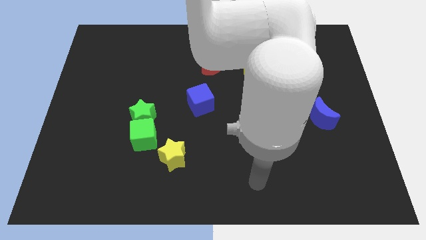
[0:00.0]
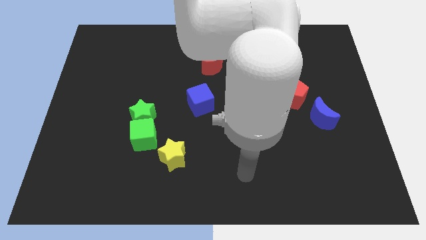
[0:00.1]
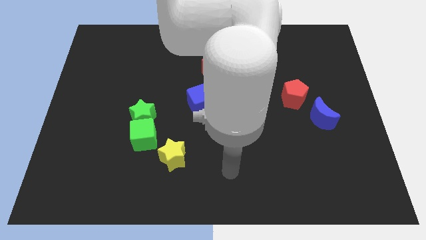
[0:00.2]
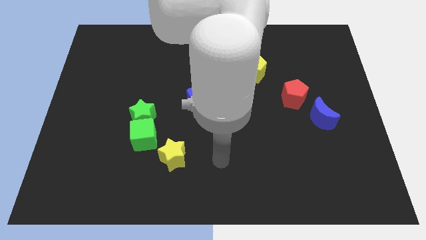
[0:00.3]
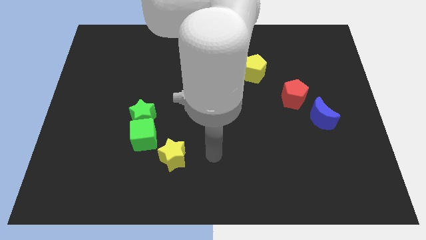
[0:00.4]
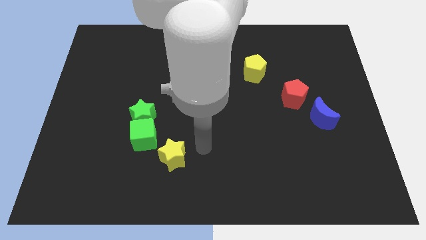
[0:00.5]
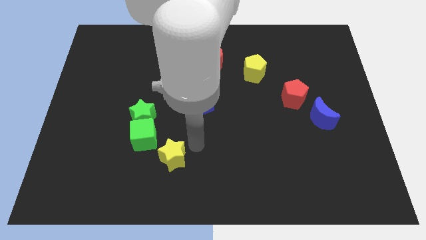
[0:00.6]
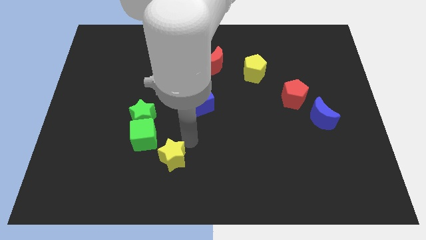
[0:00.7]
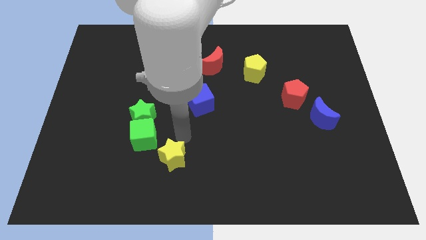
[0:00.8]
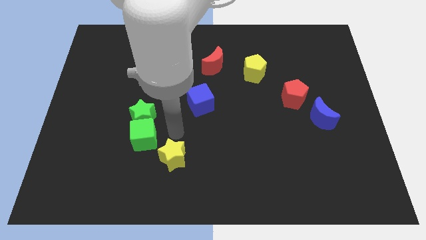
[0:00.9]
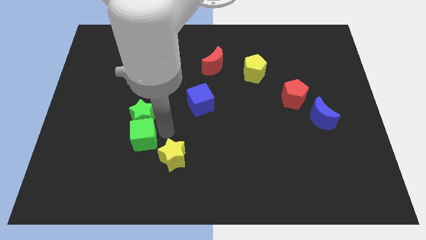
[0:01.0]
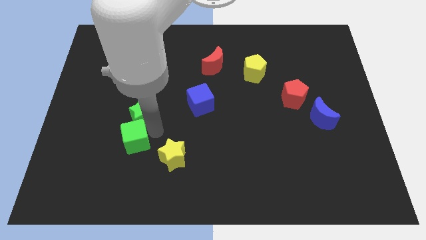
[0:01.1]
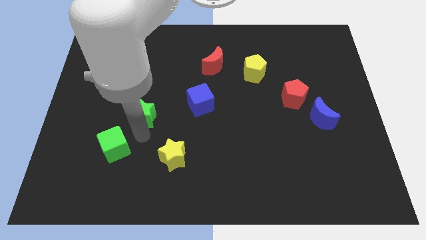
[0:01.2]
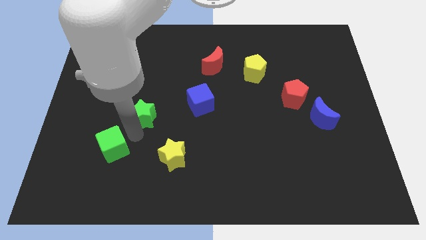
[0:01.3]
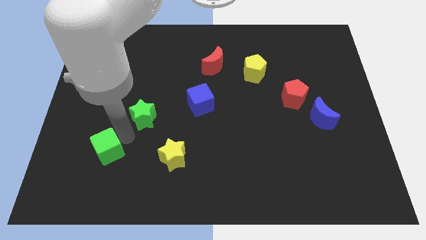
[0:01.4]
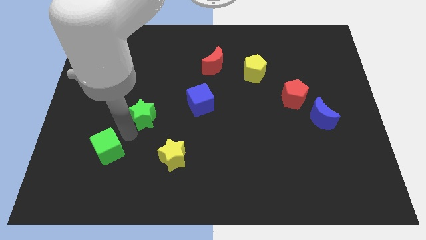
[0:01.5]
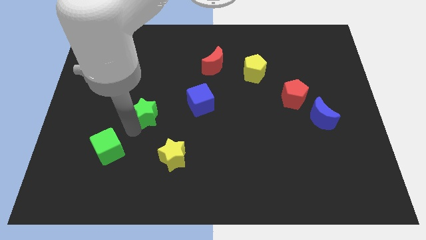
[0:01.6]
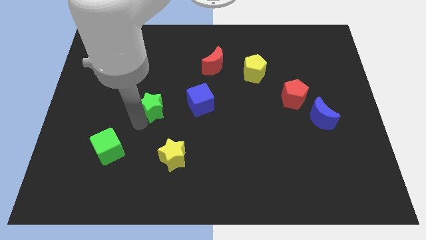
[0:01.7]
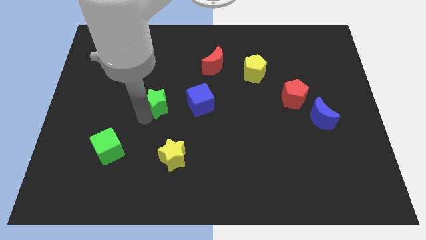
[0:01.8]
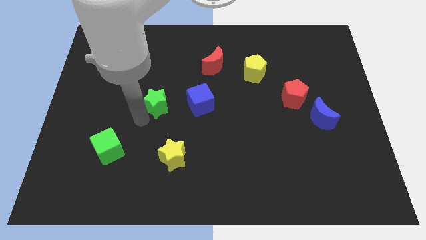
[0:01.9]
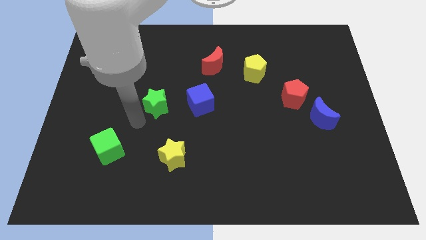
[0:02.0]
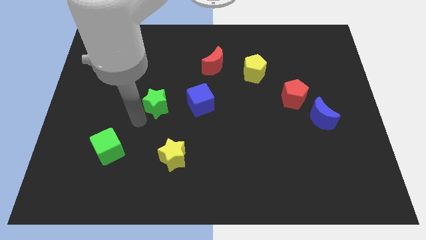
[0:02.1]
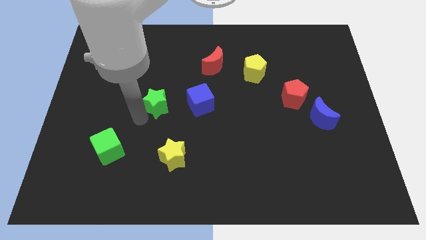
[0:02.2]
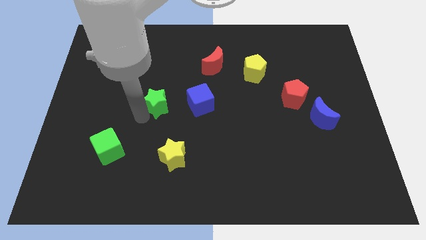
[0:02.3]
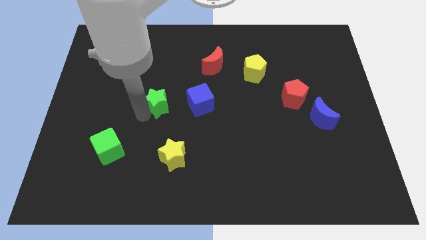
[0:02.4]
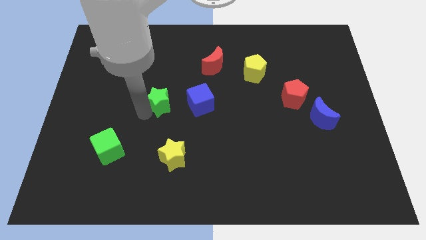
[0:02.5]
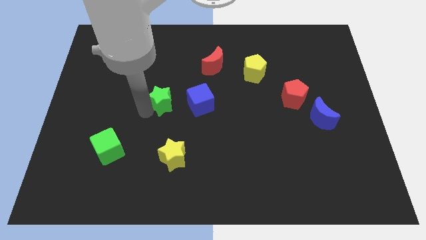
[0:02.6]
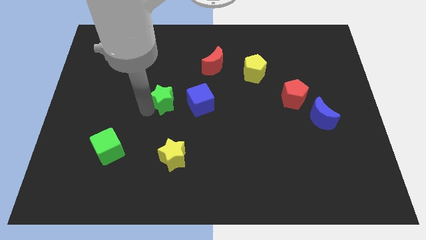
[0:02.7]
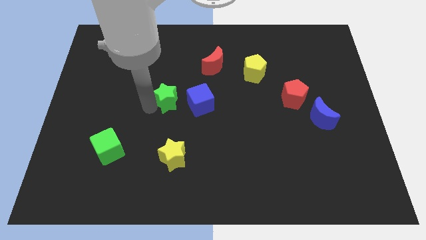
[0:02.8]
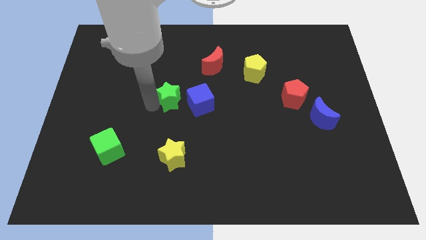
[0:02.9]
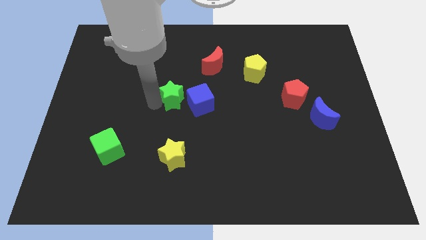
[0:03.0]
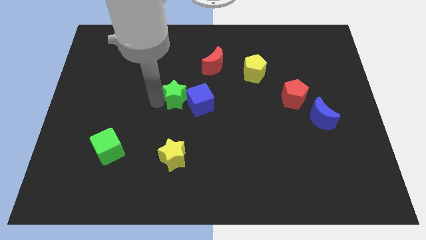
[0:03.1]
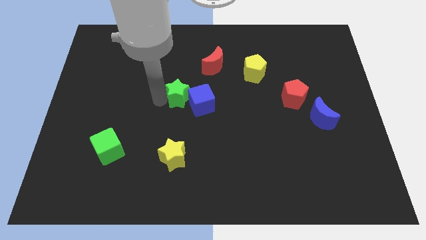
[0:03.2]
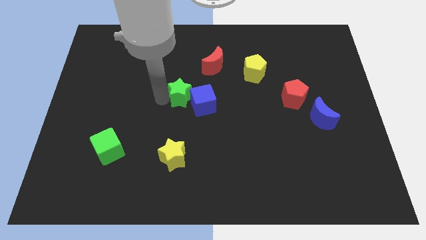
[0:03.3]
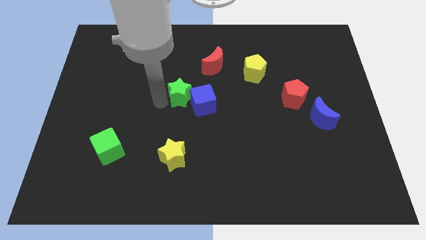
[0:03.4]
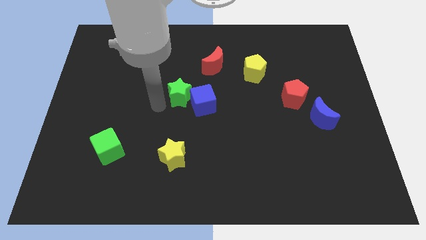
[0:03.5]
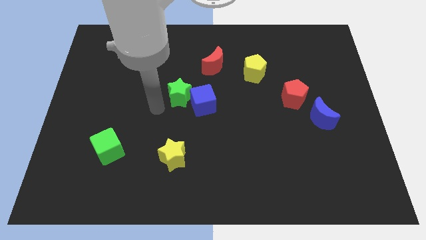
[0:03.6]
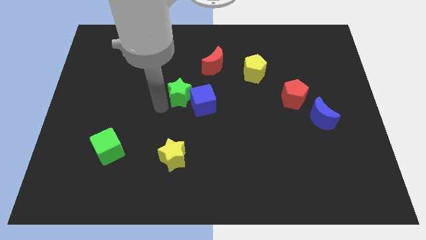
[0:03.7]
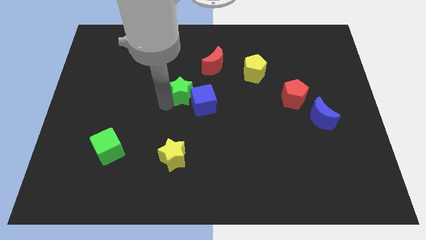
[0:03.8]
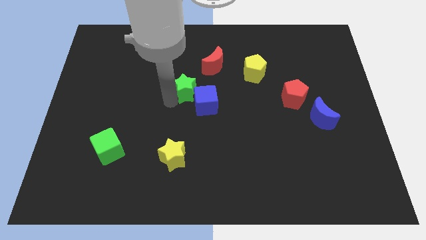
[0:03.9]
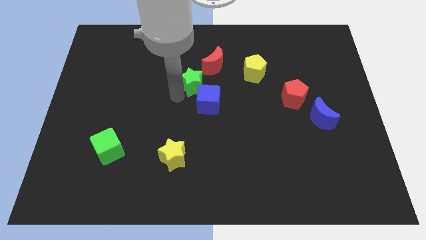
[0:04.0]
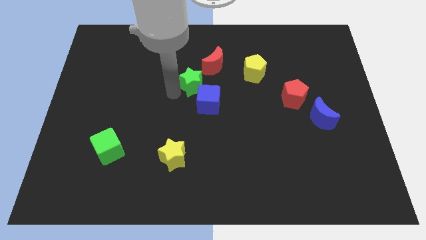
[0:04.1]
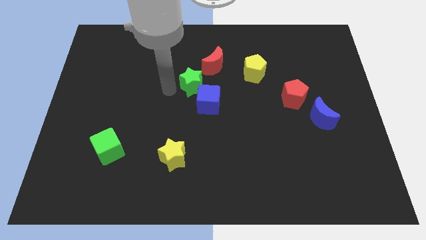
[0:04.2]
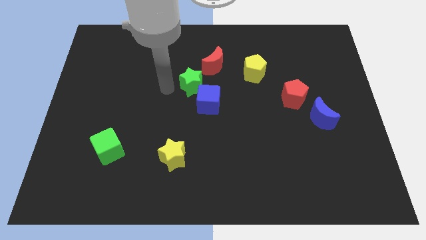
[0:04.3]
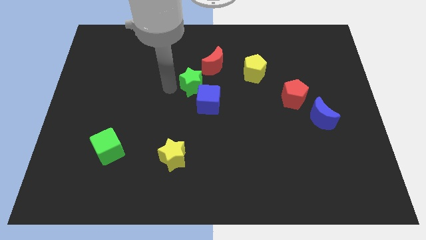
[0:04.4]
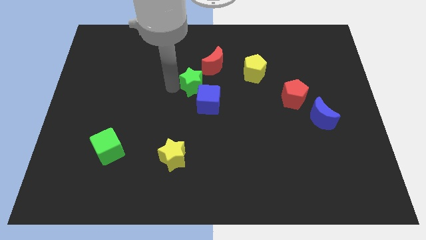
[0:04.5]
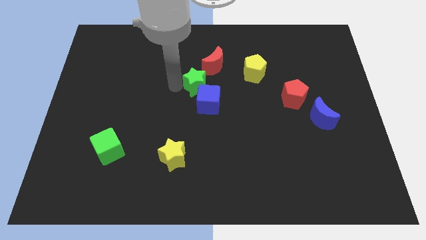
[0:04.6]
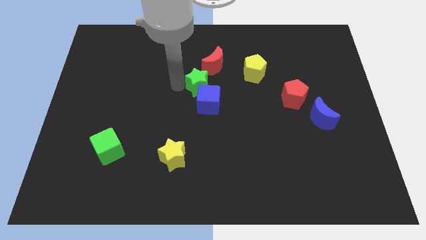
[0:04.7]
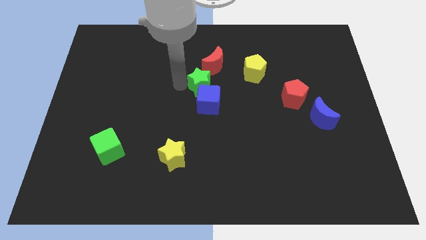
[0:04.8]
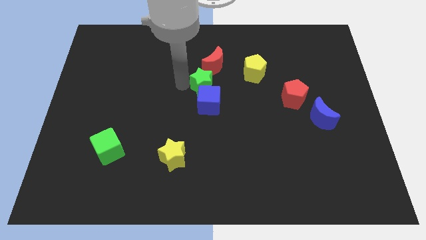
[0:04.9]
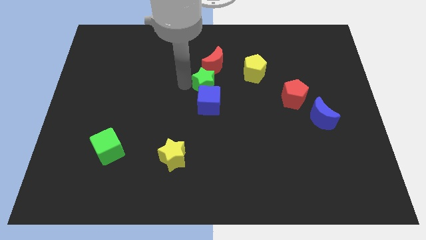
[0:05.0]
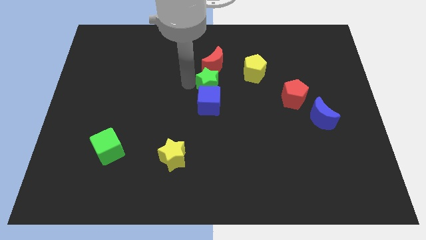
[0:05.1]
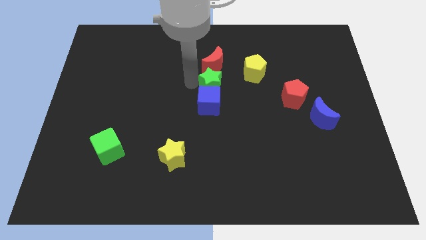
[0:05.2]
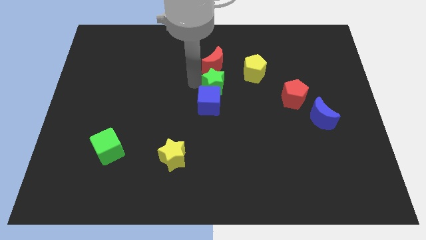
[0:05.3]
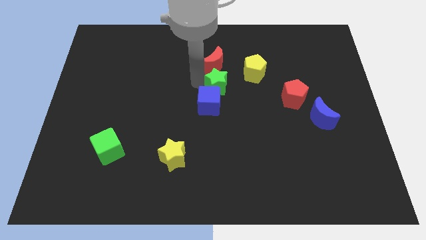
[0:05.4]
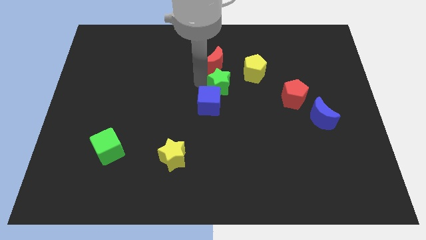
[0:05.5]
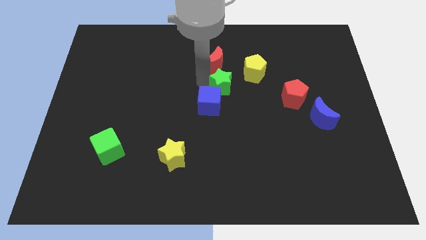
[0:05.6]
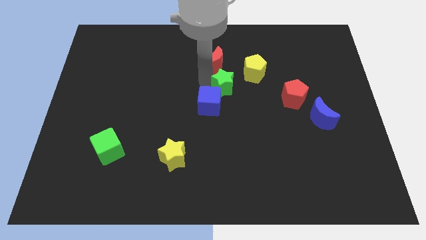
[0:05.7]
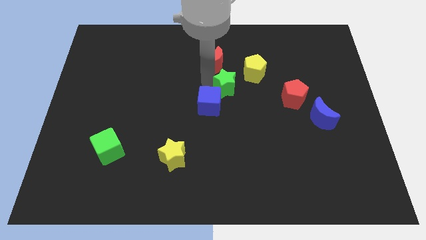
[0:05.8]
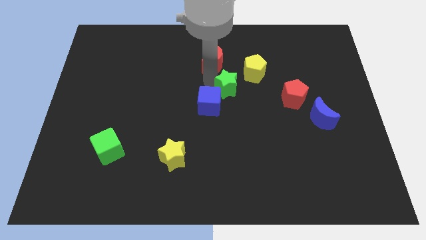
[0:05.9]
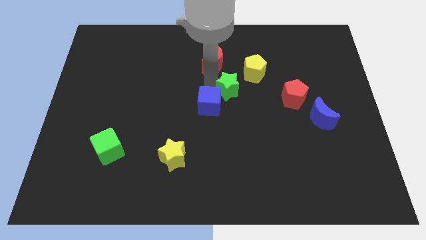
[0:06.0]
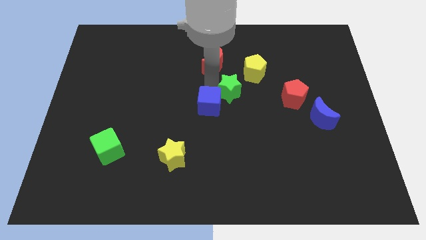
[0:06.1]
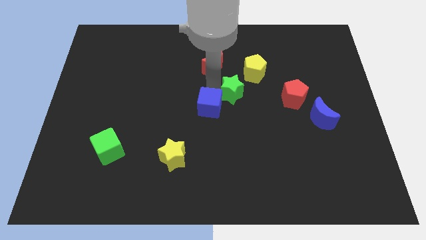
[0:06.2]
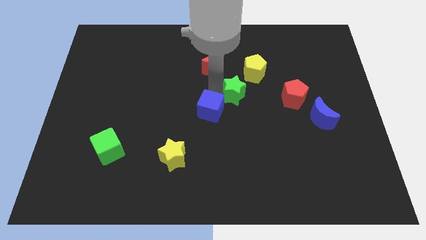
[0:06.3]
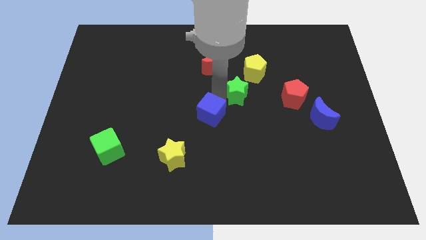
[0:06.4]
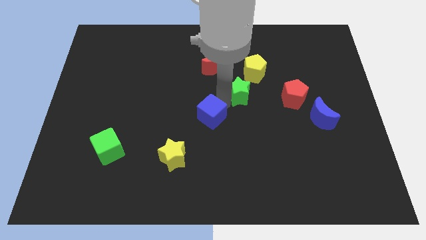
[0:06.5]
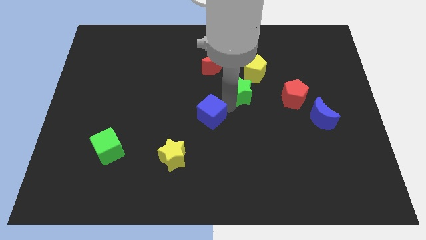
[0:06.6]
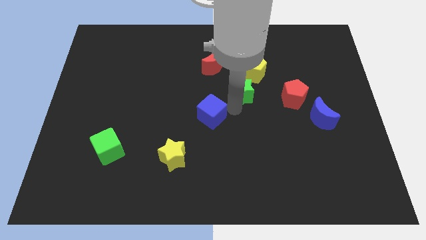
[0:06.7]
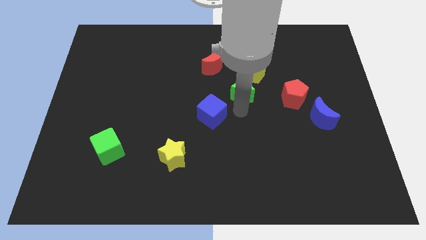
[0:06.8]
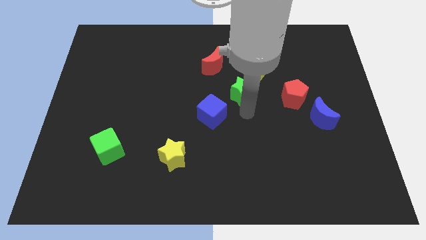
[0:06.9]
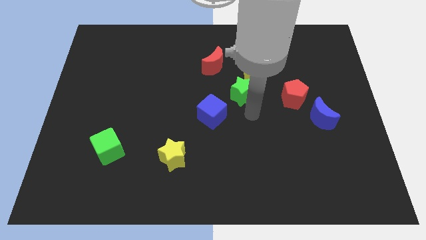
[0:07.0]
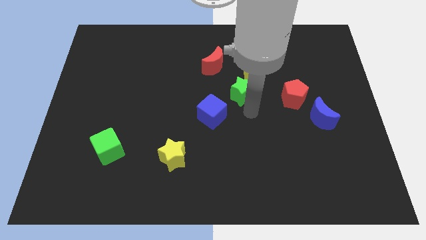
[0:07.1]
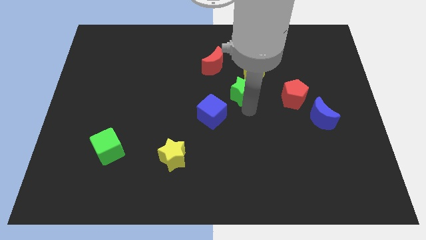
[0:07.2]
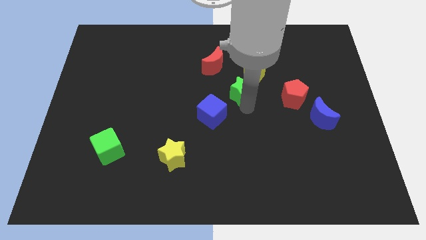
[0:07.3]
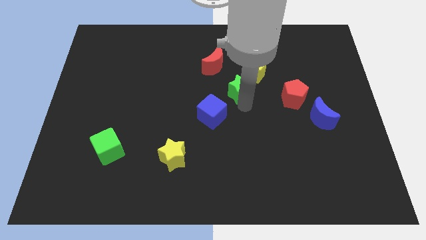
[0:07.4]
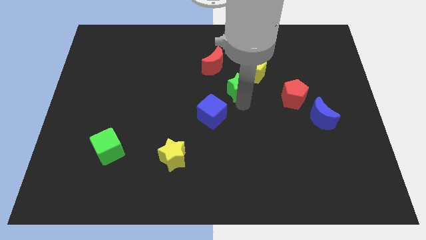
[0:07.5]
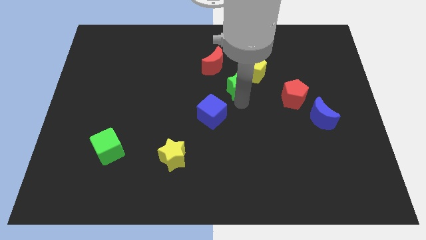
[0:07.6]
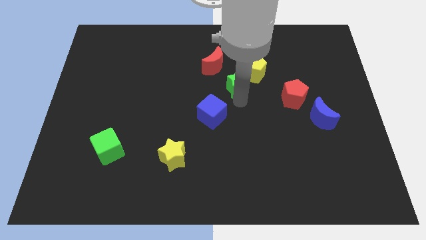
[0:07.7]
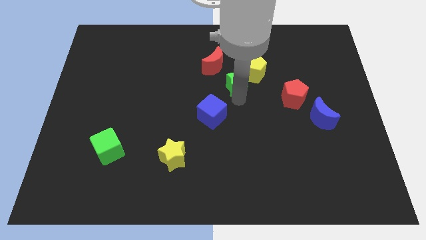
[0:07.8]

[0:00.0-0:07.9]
push the green star towards the yellow pentagon
